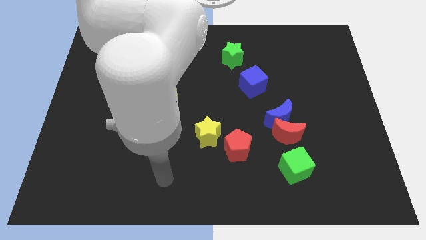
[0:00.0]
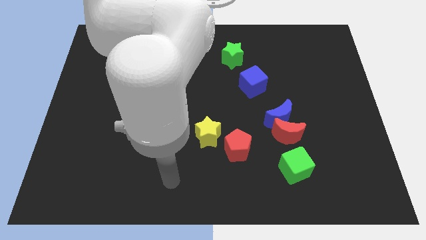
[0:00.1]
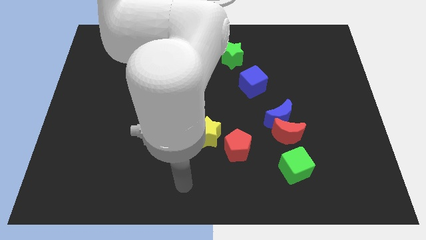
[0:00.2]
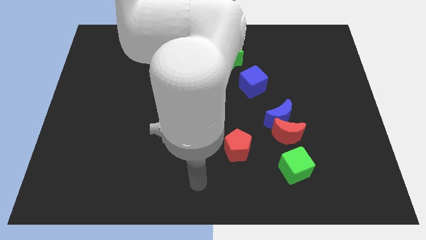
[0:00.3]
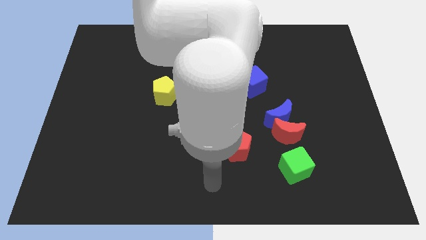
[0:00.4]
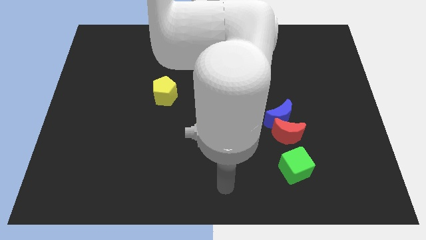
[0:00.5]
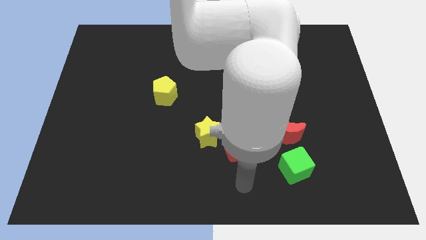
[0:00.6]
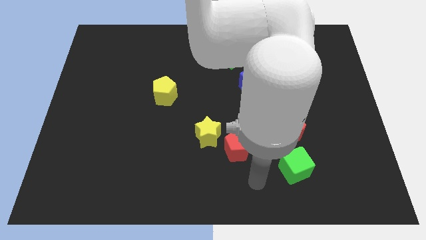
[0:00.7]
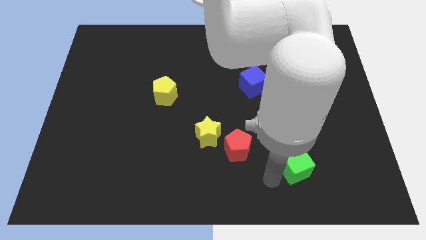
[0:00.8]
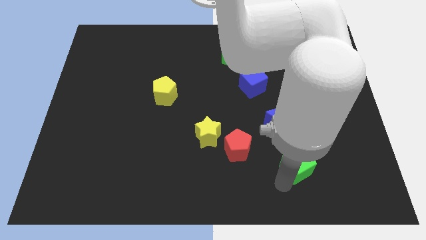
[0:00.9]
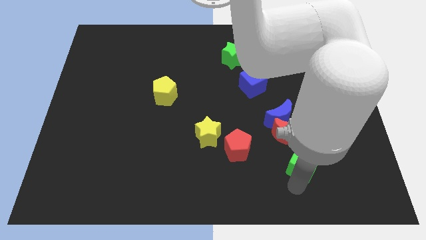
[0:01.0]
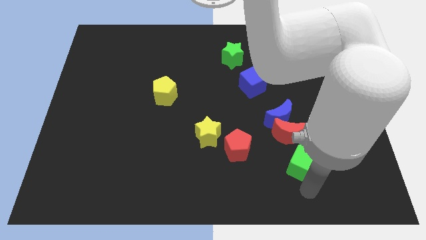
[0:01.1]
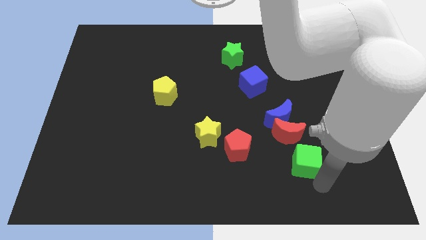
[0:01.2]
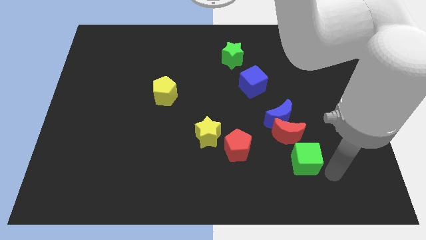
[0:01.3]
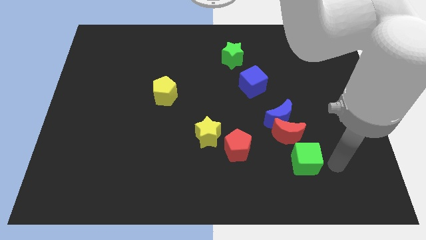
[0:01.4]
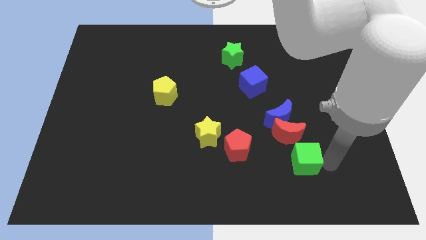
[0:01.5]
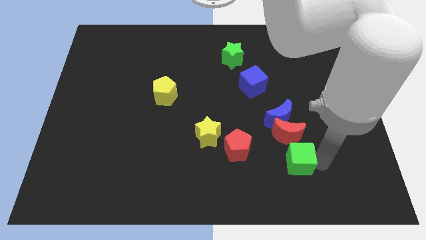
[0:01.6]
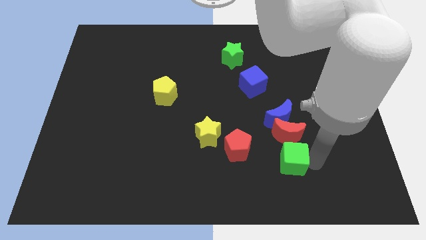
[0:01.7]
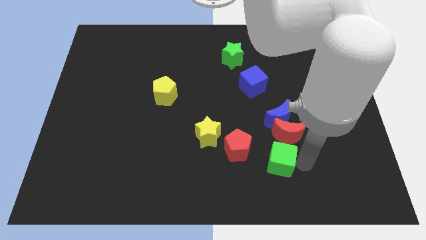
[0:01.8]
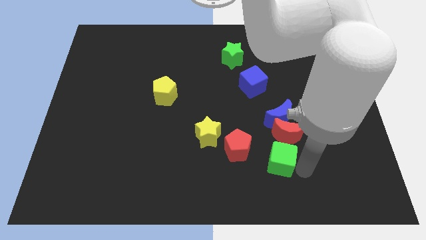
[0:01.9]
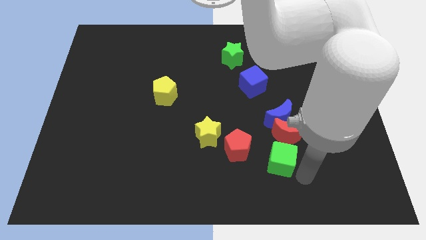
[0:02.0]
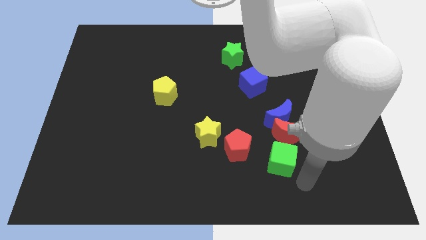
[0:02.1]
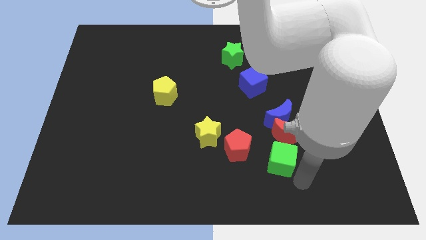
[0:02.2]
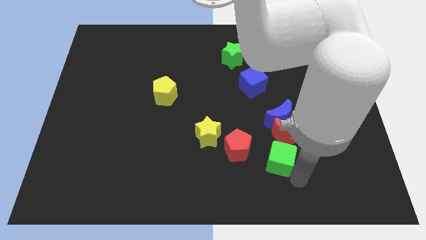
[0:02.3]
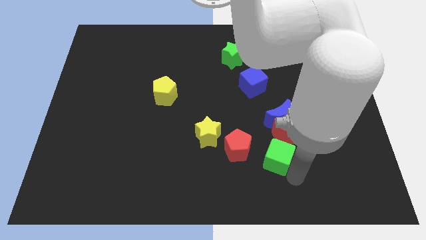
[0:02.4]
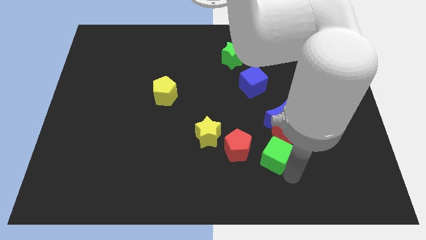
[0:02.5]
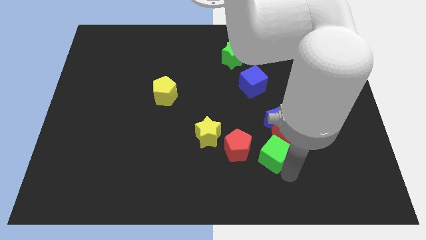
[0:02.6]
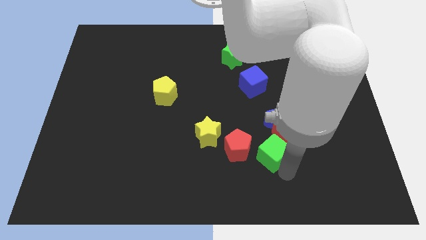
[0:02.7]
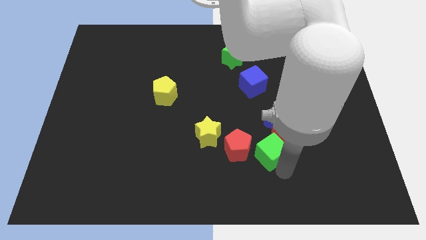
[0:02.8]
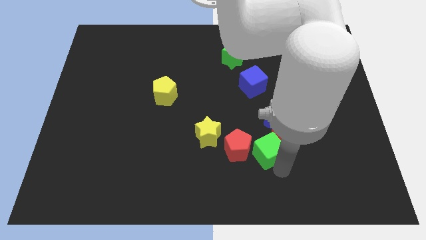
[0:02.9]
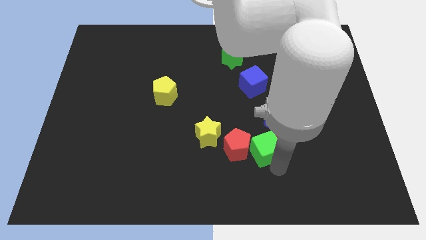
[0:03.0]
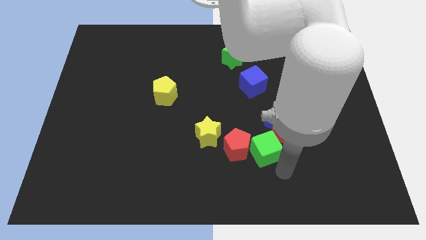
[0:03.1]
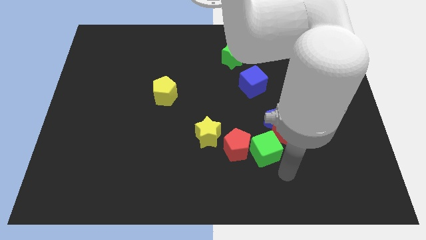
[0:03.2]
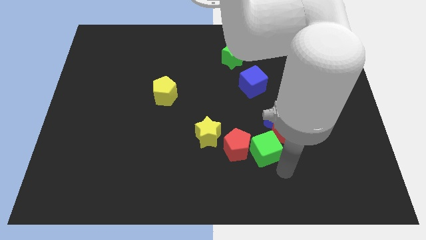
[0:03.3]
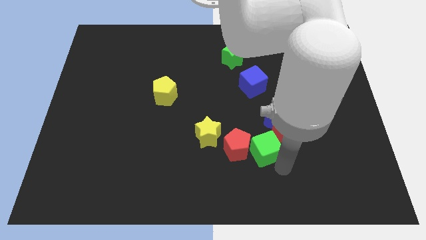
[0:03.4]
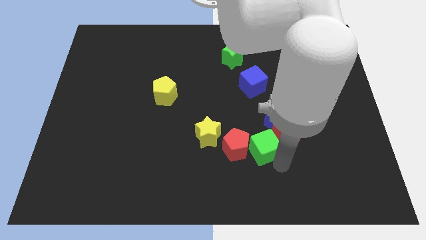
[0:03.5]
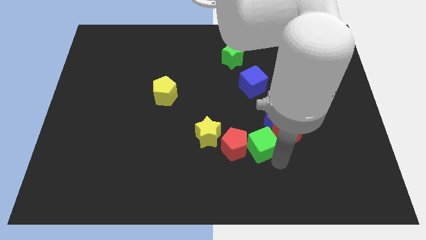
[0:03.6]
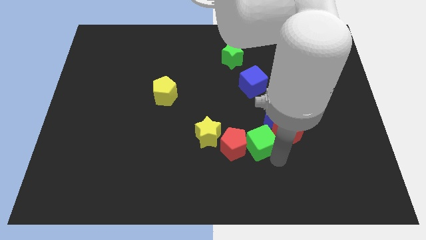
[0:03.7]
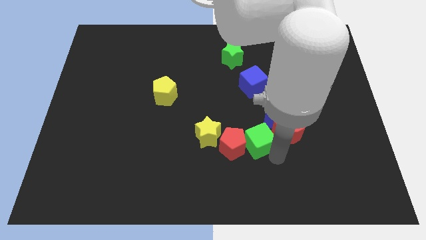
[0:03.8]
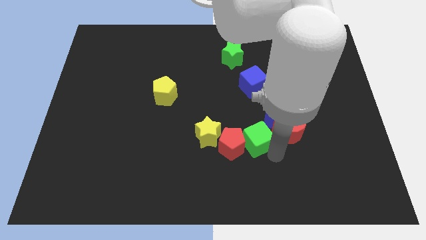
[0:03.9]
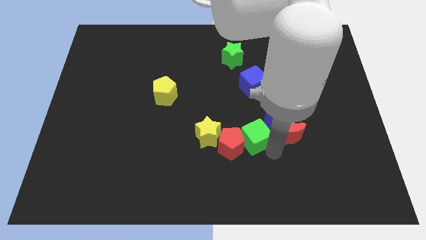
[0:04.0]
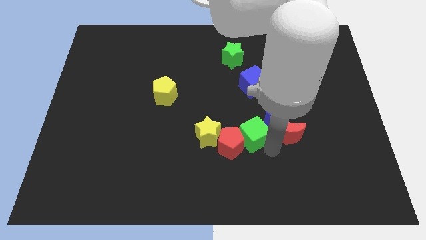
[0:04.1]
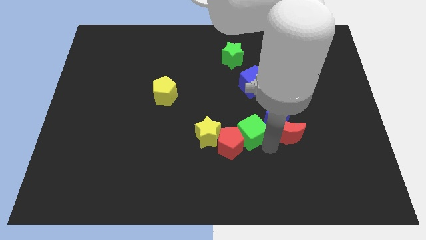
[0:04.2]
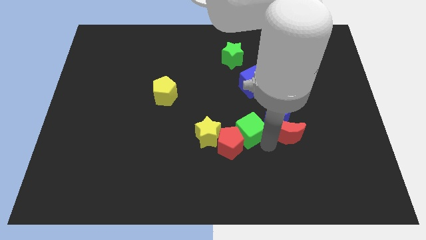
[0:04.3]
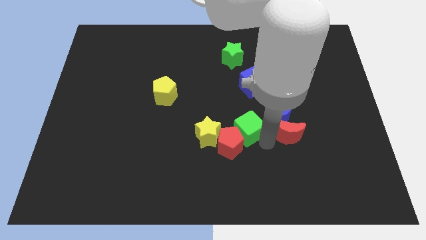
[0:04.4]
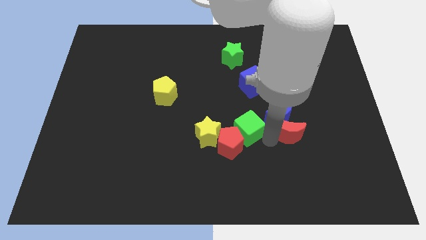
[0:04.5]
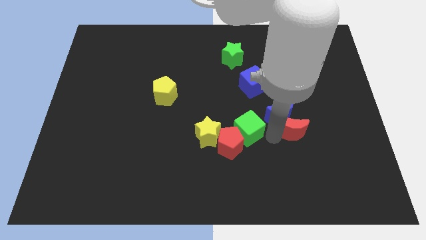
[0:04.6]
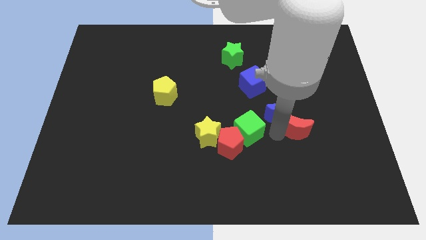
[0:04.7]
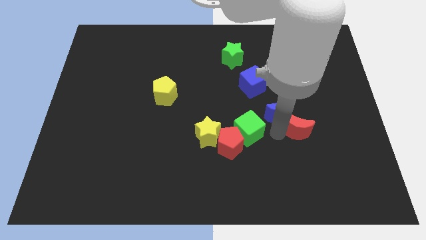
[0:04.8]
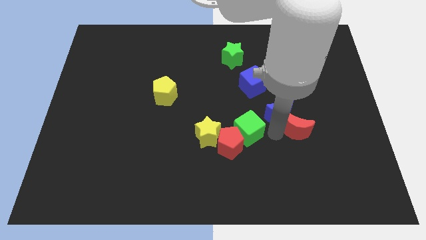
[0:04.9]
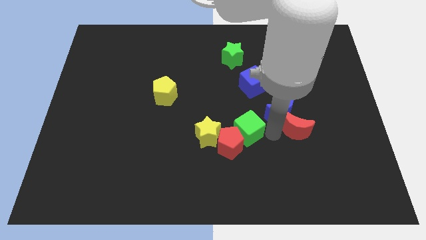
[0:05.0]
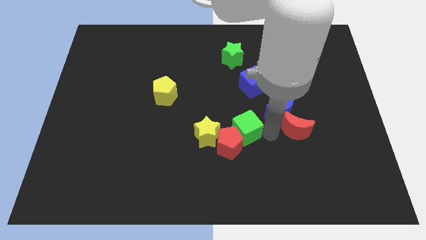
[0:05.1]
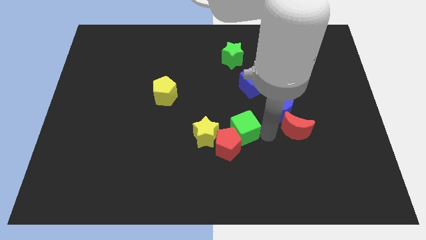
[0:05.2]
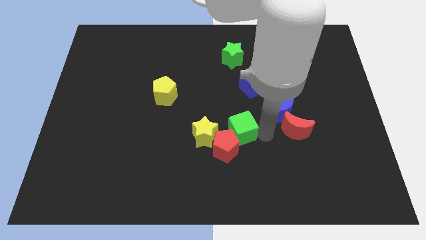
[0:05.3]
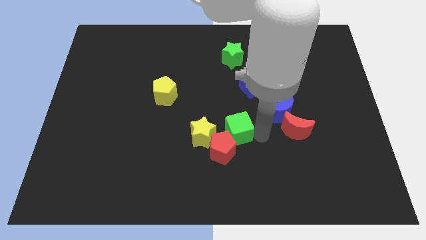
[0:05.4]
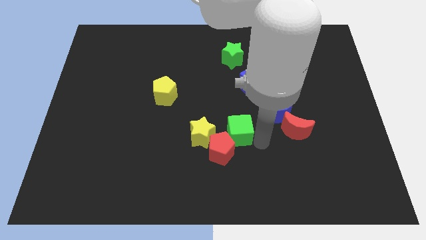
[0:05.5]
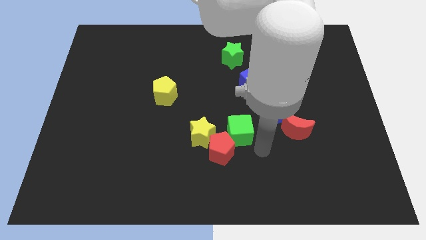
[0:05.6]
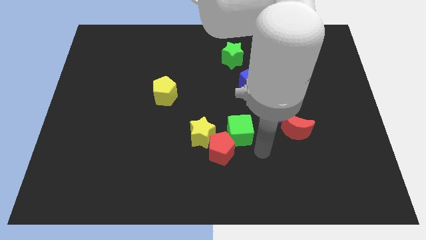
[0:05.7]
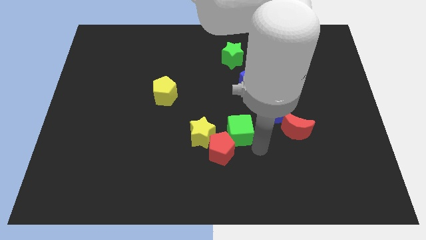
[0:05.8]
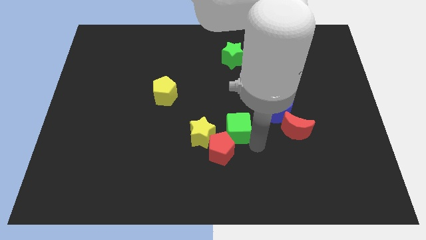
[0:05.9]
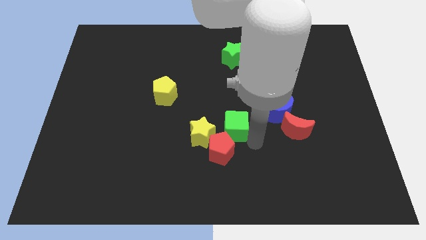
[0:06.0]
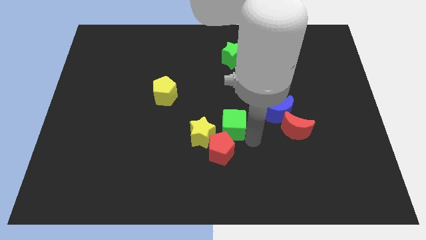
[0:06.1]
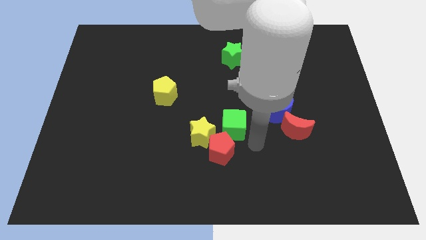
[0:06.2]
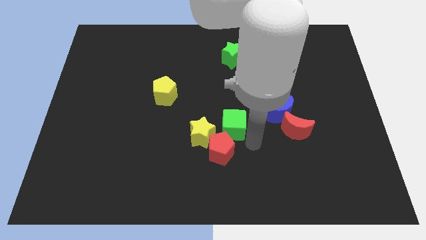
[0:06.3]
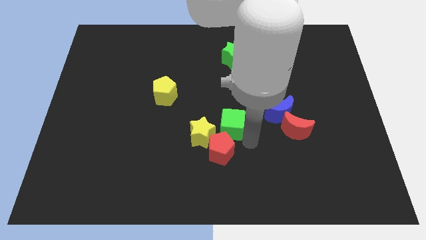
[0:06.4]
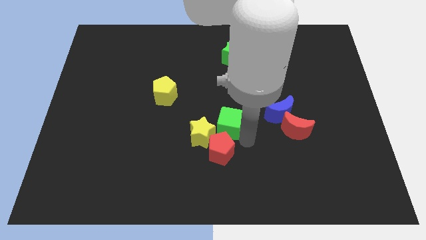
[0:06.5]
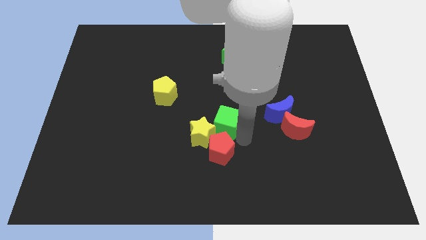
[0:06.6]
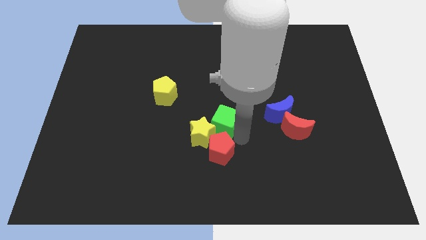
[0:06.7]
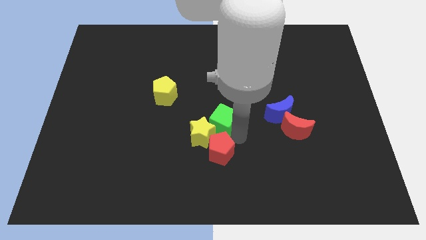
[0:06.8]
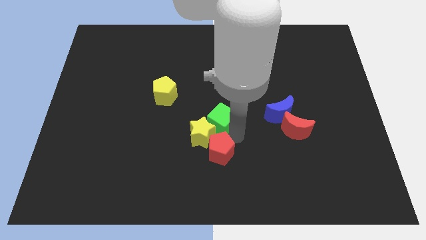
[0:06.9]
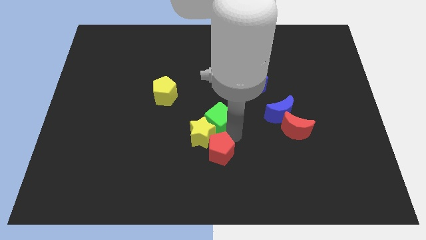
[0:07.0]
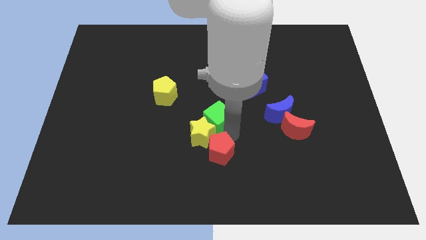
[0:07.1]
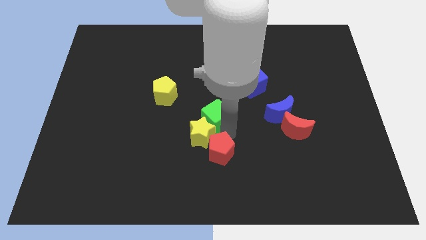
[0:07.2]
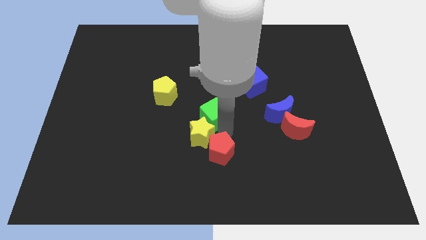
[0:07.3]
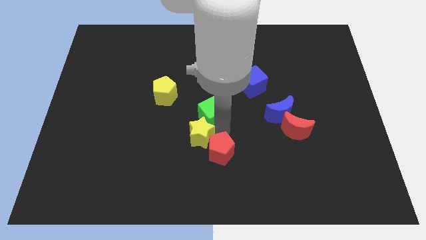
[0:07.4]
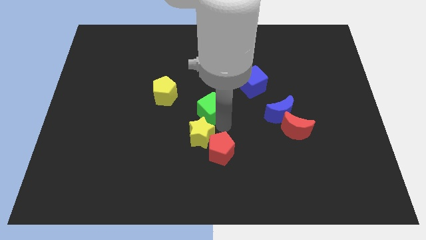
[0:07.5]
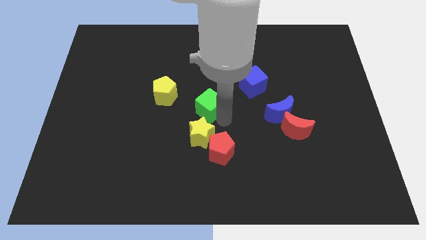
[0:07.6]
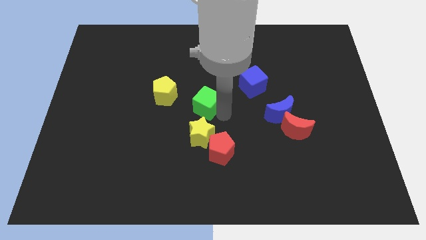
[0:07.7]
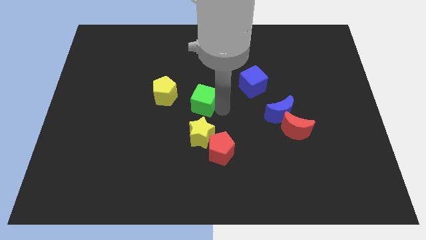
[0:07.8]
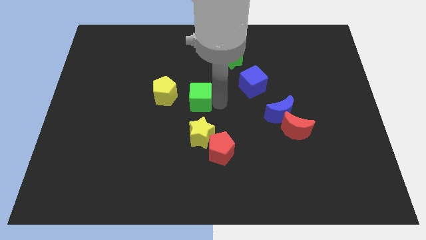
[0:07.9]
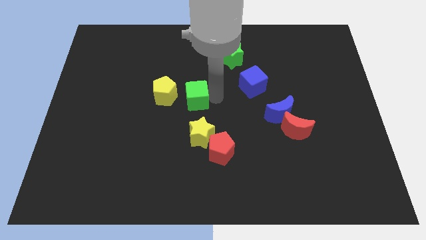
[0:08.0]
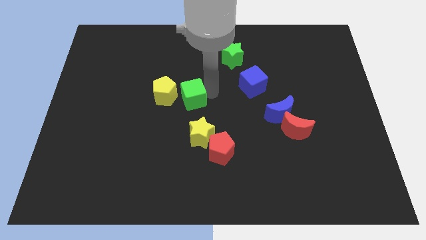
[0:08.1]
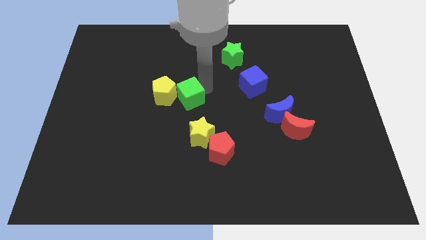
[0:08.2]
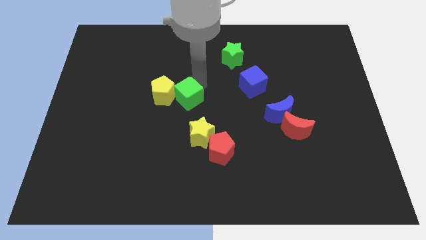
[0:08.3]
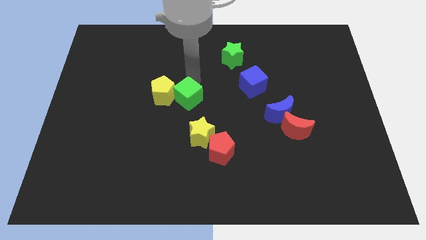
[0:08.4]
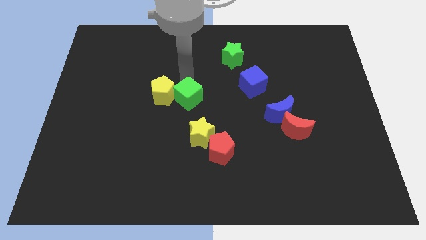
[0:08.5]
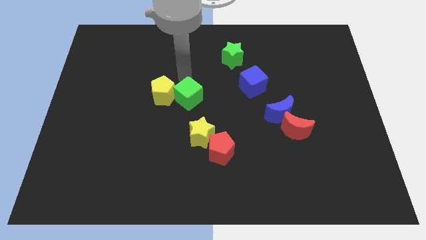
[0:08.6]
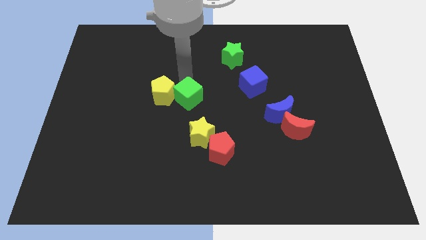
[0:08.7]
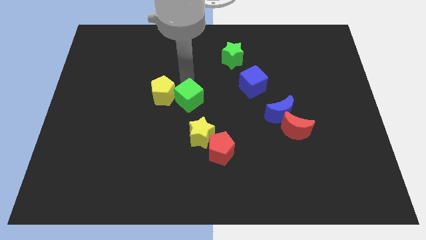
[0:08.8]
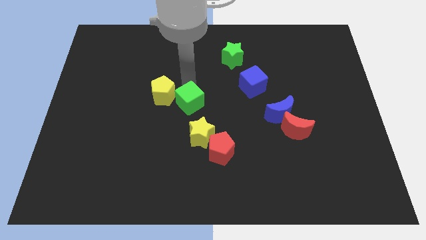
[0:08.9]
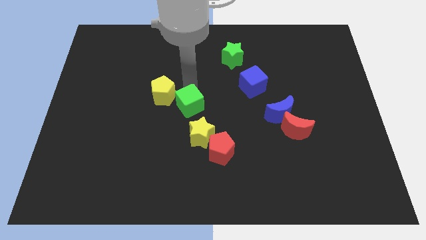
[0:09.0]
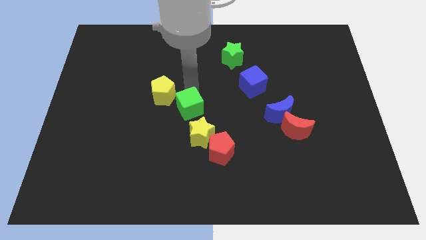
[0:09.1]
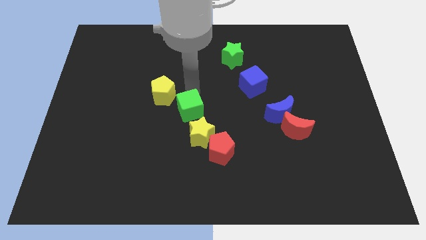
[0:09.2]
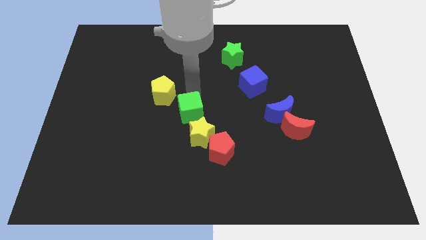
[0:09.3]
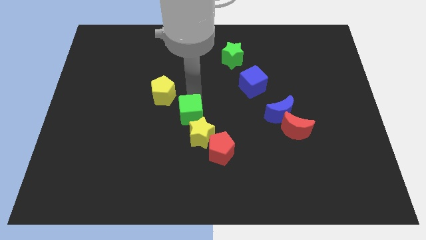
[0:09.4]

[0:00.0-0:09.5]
put the green cube diagonally up and to the left of the red pentagon
